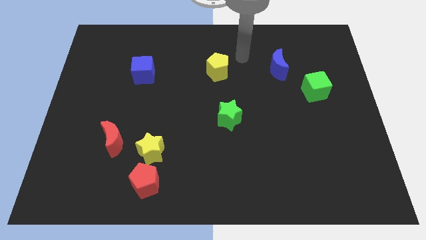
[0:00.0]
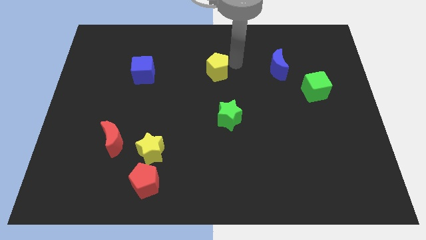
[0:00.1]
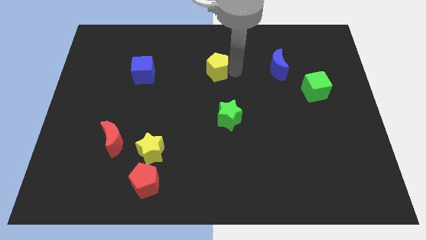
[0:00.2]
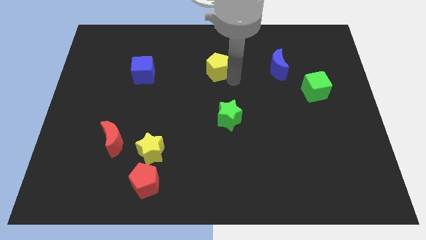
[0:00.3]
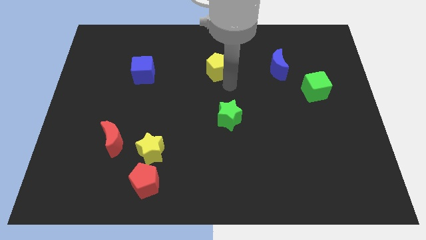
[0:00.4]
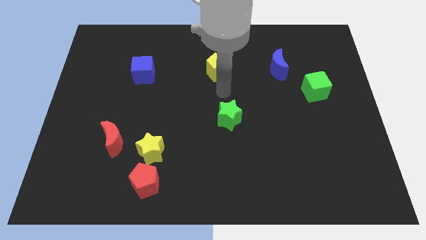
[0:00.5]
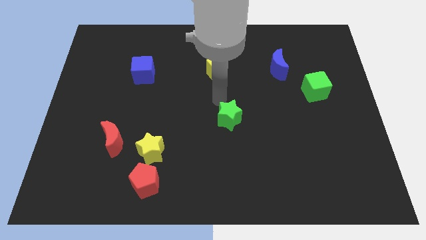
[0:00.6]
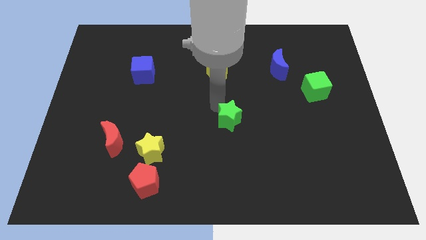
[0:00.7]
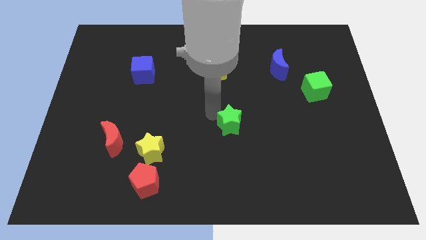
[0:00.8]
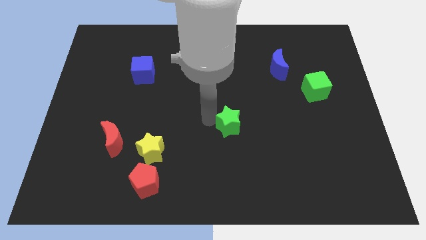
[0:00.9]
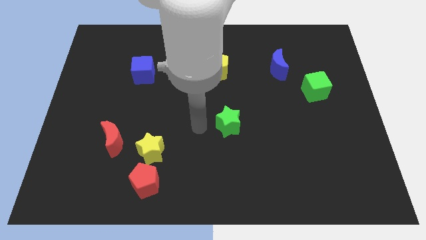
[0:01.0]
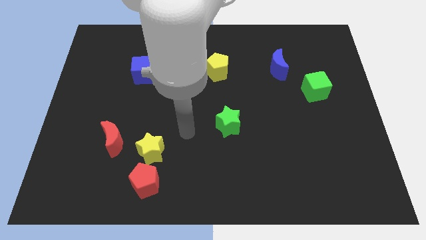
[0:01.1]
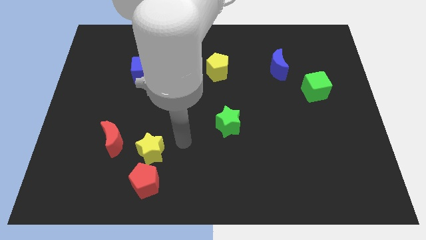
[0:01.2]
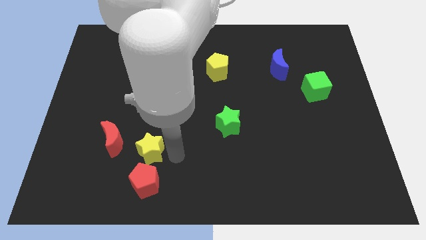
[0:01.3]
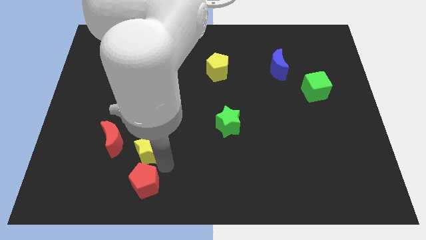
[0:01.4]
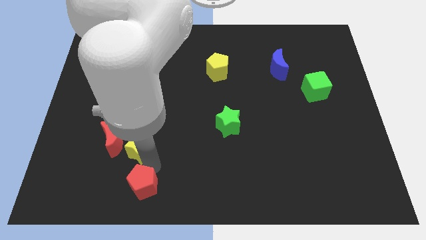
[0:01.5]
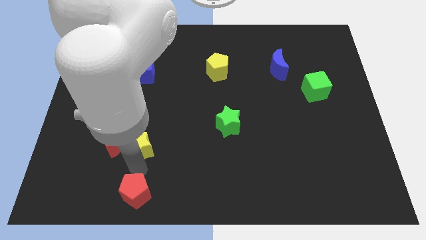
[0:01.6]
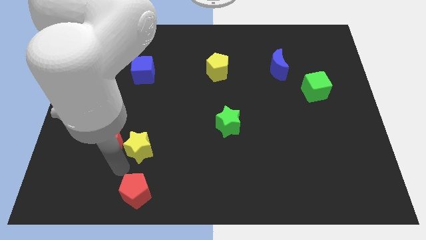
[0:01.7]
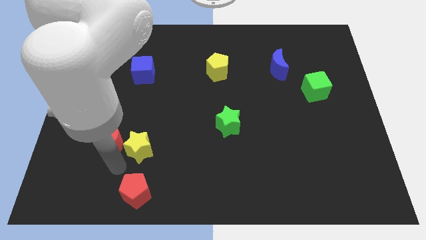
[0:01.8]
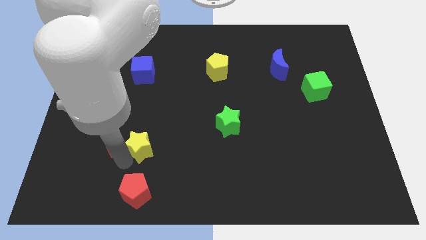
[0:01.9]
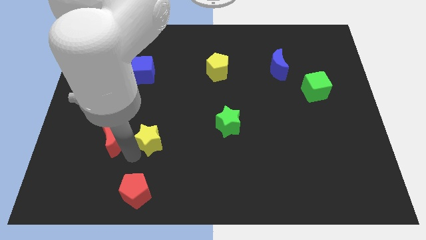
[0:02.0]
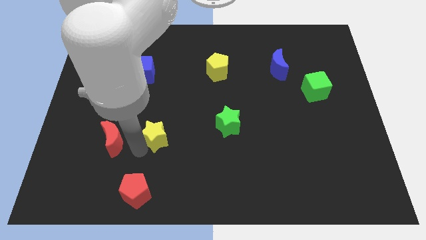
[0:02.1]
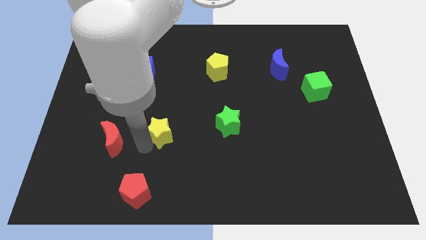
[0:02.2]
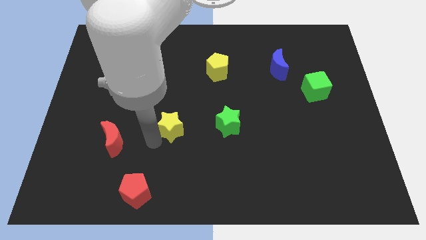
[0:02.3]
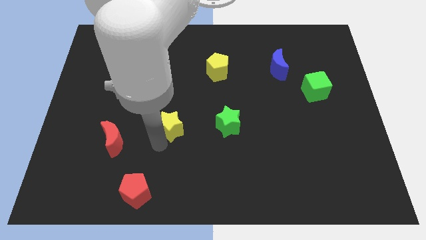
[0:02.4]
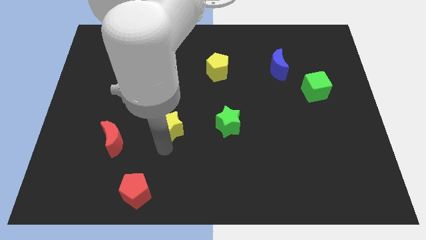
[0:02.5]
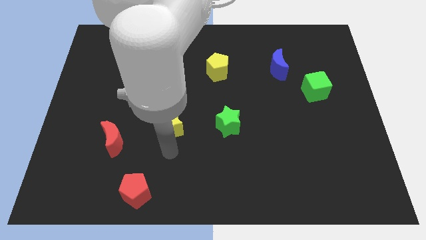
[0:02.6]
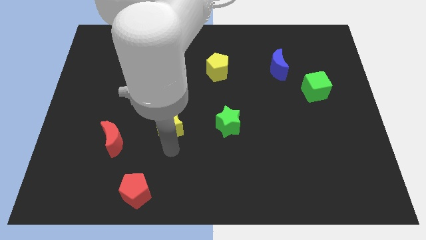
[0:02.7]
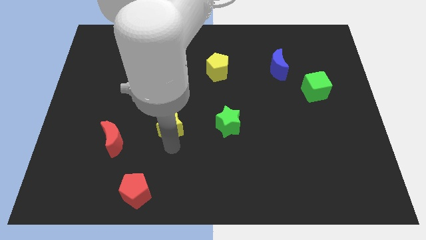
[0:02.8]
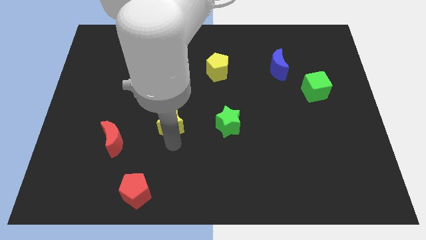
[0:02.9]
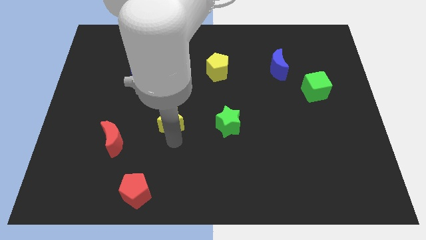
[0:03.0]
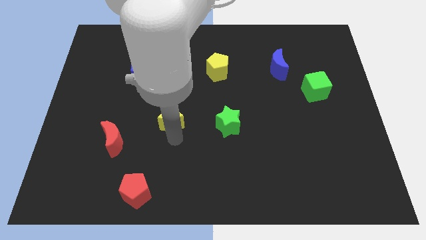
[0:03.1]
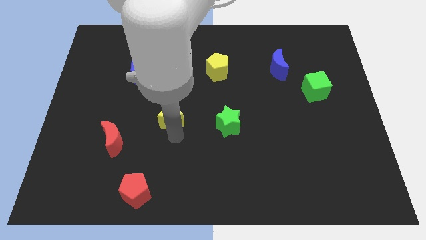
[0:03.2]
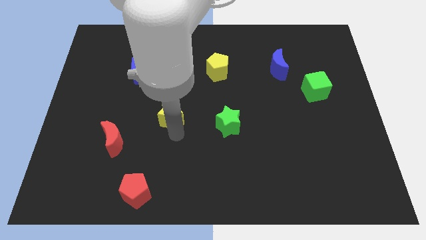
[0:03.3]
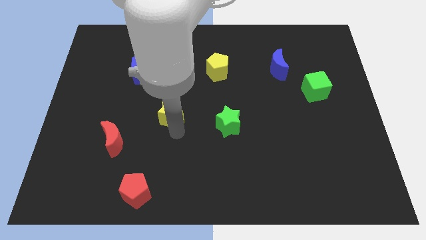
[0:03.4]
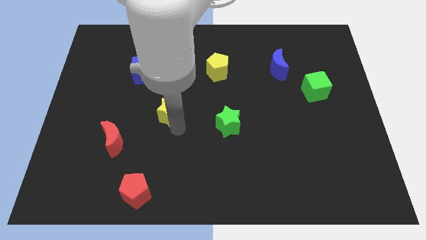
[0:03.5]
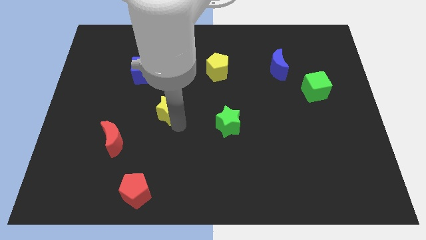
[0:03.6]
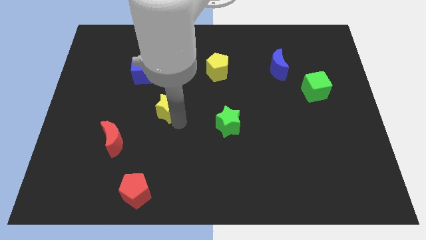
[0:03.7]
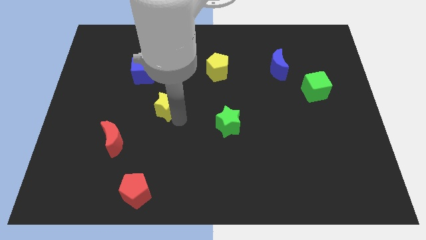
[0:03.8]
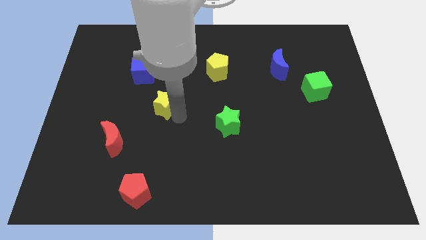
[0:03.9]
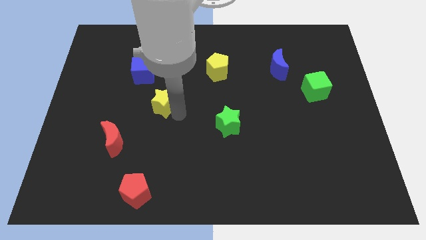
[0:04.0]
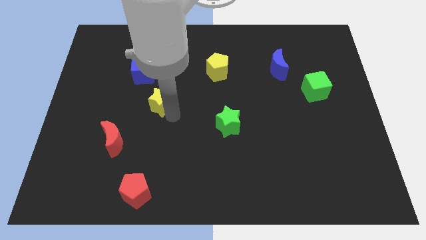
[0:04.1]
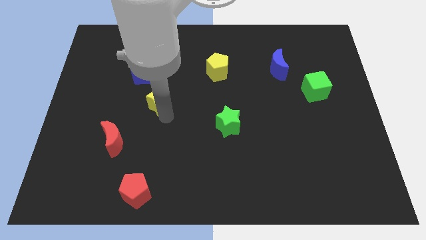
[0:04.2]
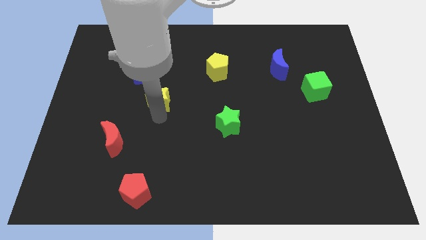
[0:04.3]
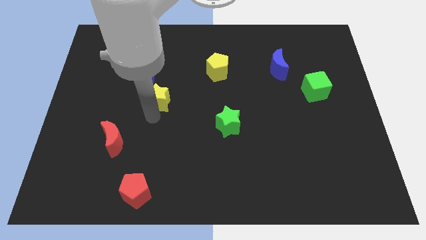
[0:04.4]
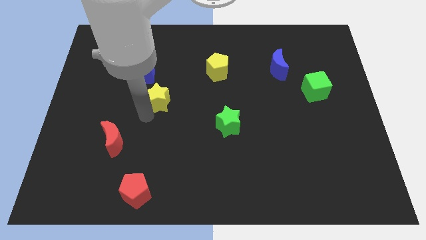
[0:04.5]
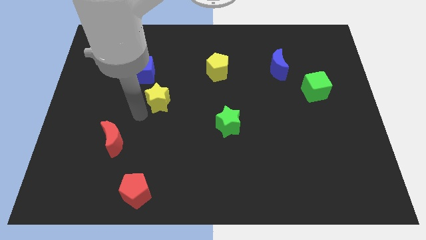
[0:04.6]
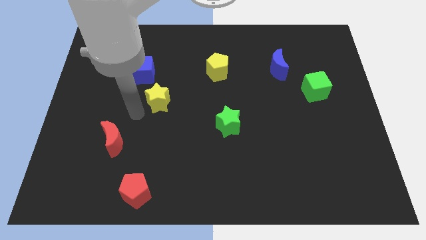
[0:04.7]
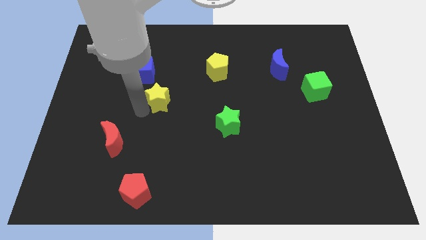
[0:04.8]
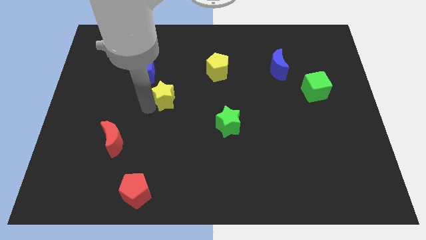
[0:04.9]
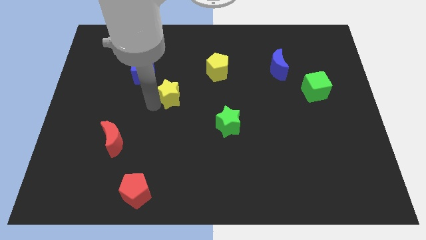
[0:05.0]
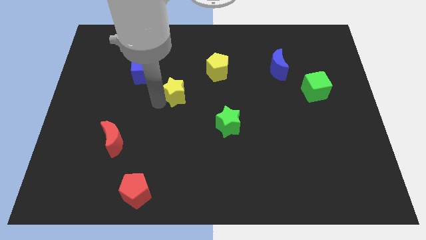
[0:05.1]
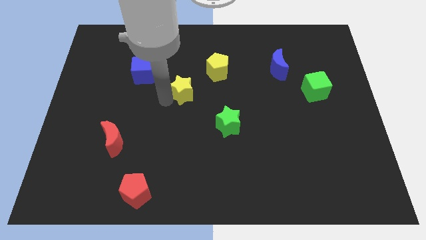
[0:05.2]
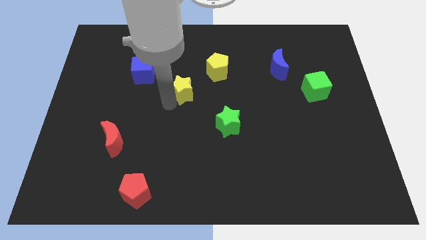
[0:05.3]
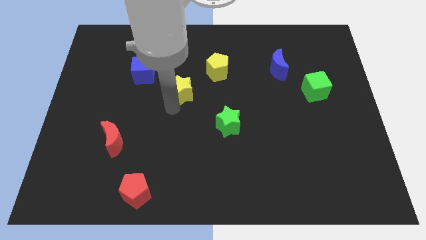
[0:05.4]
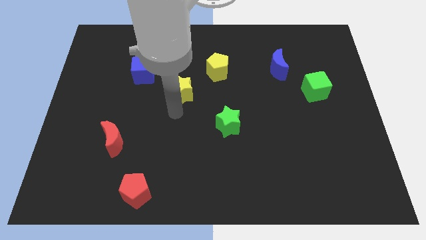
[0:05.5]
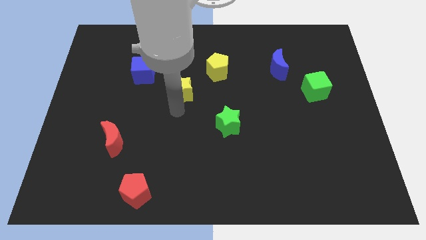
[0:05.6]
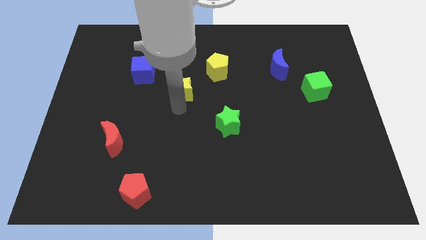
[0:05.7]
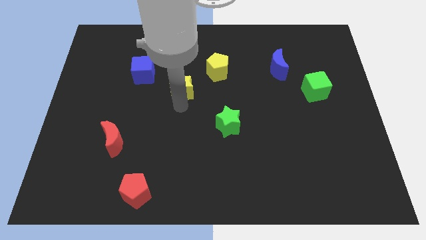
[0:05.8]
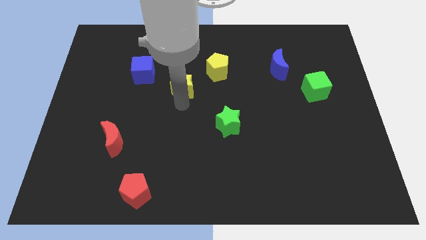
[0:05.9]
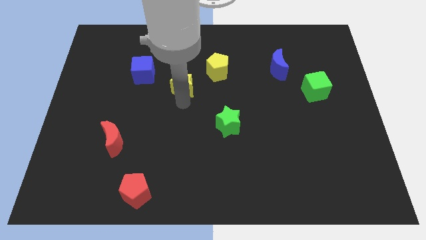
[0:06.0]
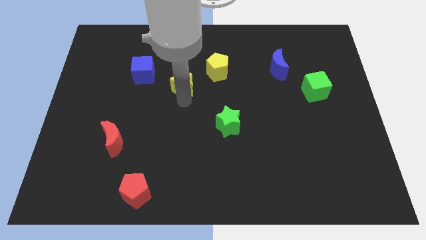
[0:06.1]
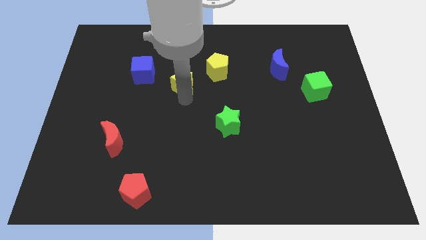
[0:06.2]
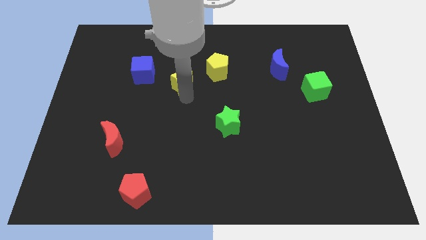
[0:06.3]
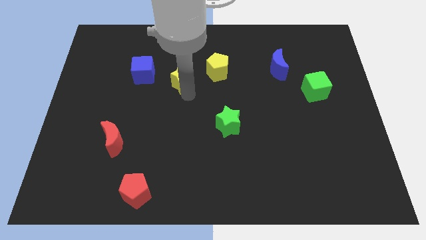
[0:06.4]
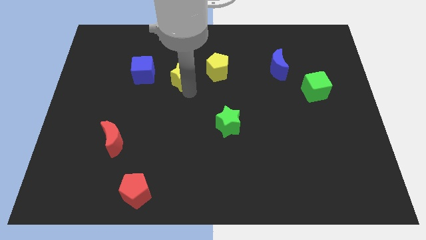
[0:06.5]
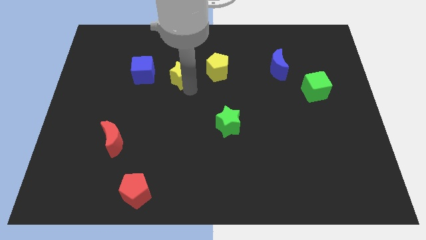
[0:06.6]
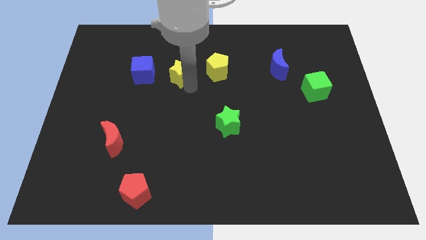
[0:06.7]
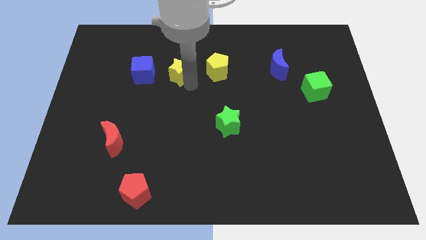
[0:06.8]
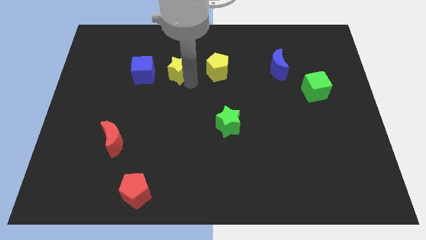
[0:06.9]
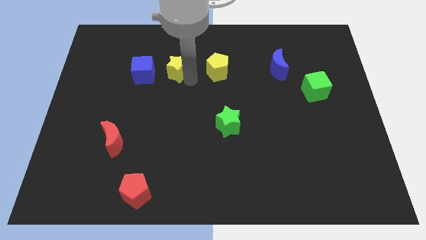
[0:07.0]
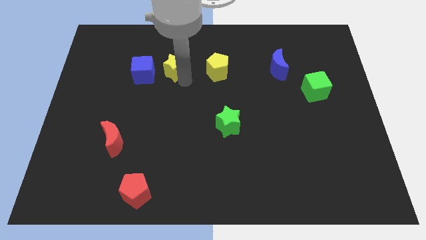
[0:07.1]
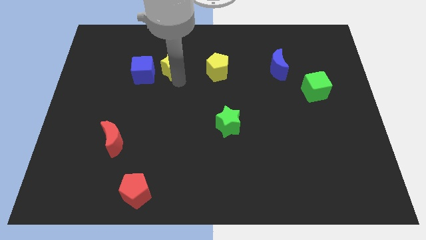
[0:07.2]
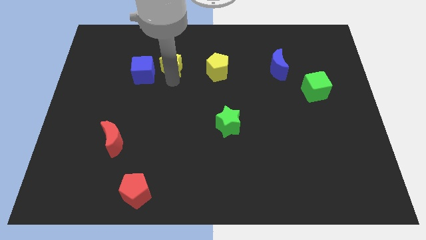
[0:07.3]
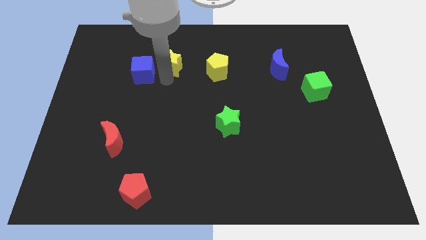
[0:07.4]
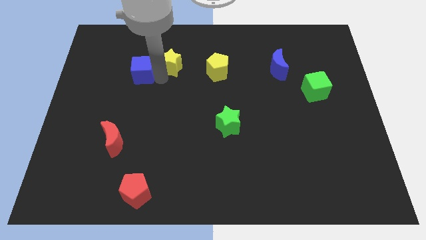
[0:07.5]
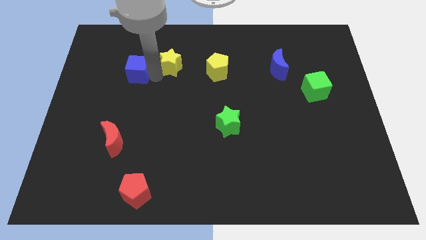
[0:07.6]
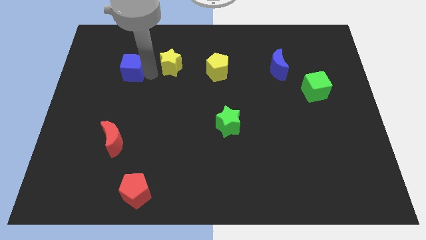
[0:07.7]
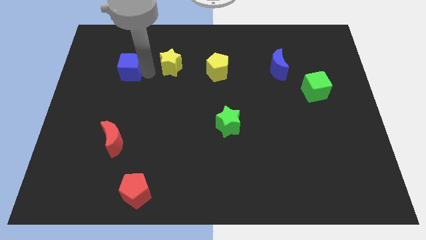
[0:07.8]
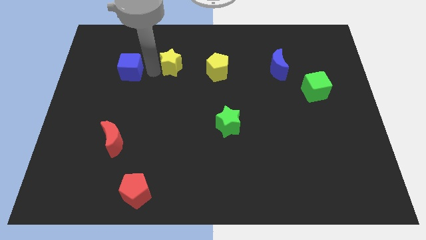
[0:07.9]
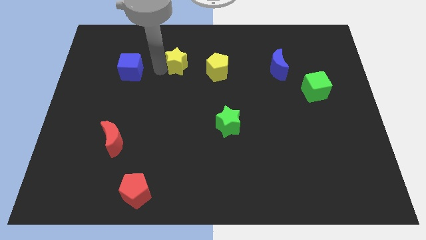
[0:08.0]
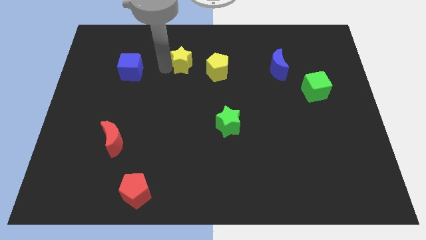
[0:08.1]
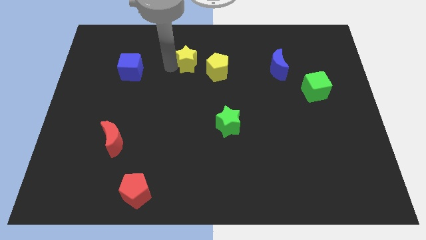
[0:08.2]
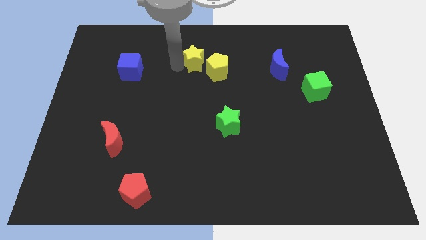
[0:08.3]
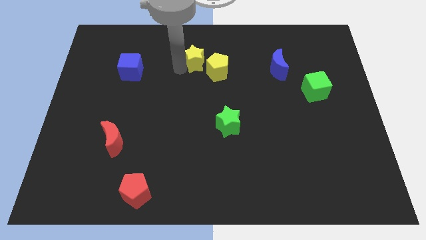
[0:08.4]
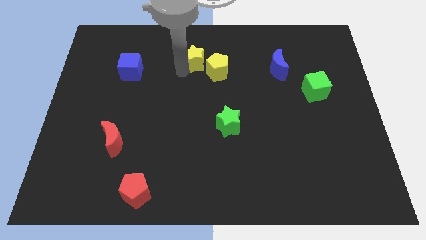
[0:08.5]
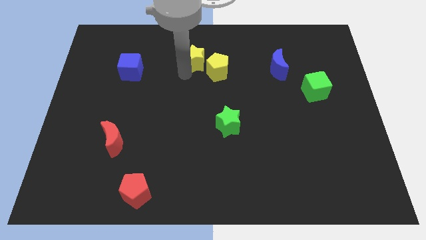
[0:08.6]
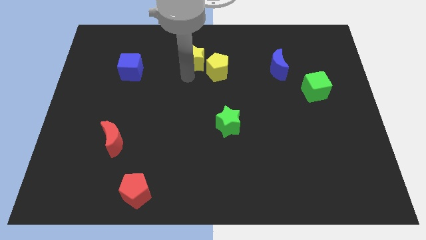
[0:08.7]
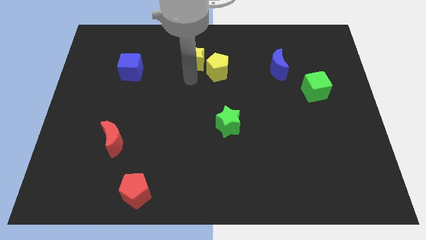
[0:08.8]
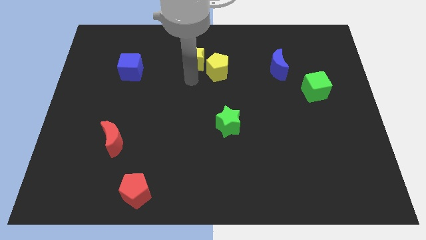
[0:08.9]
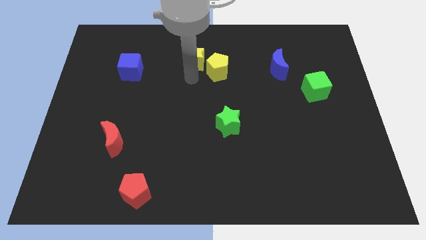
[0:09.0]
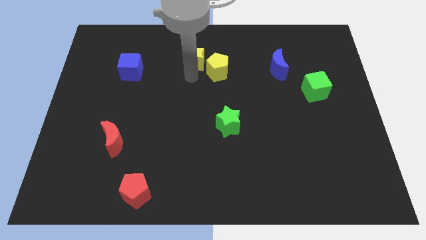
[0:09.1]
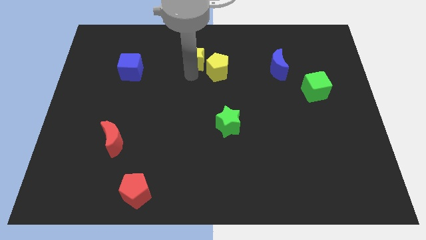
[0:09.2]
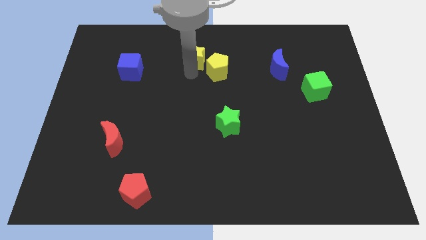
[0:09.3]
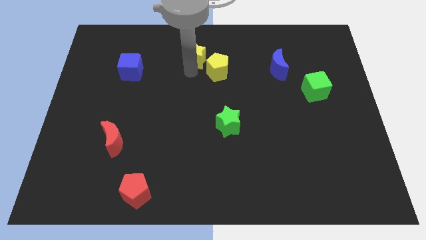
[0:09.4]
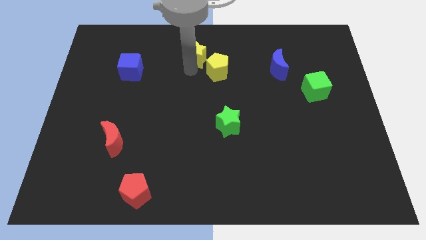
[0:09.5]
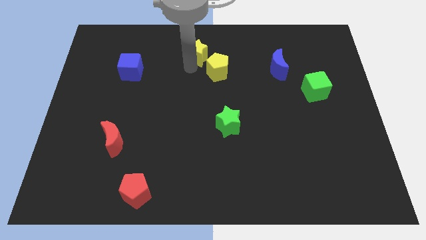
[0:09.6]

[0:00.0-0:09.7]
push the yellow star to the towards your base
